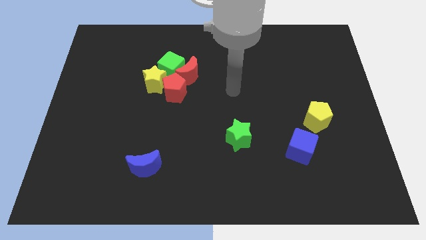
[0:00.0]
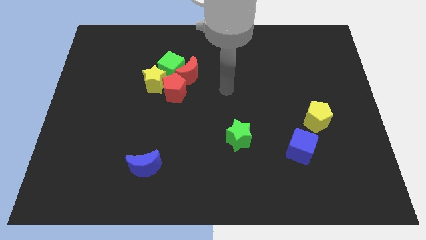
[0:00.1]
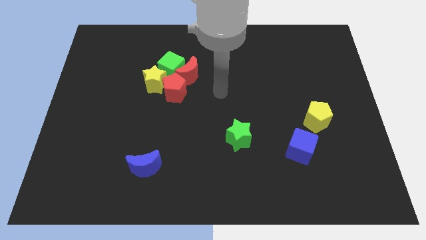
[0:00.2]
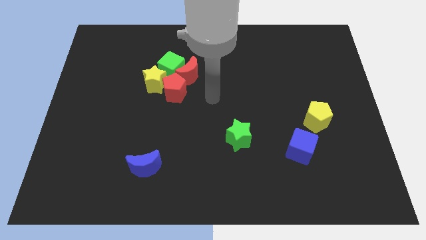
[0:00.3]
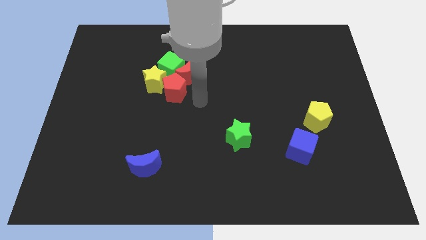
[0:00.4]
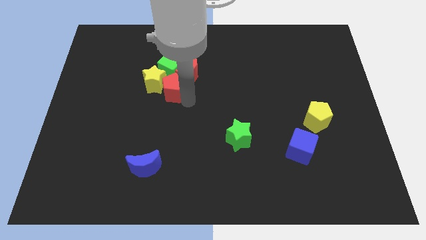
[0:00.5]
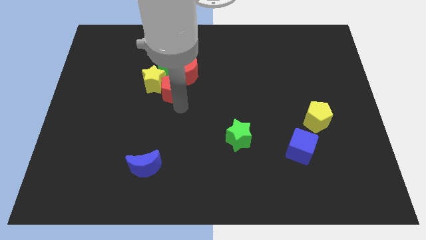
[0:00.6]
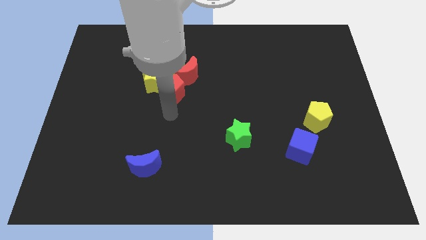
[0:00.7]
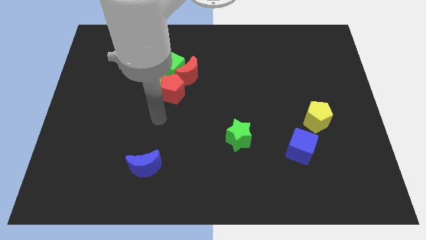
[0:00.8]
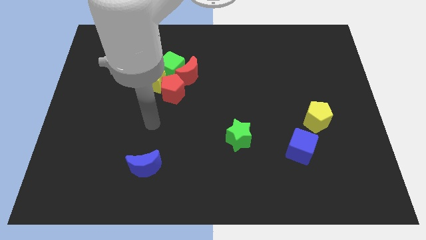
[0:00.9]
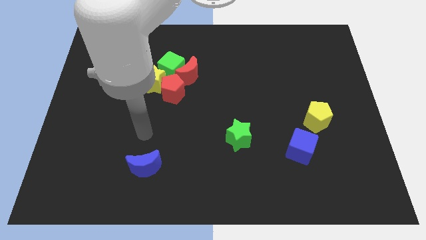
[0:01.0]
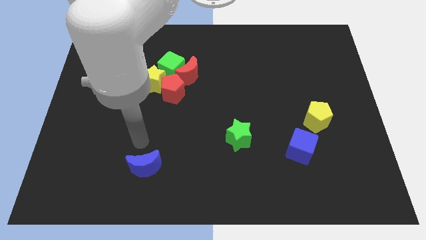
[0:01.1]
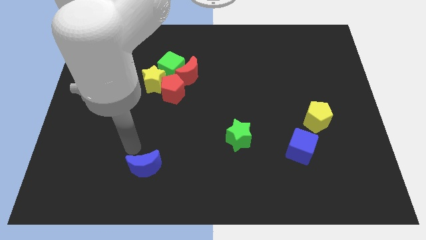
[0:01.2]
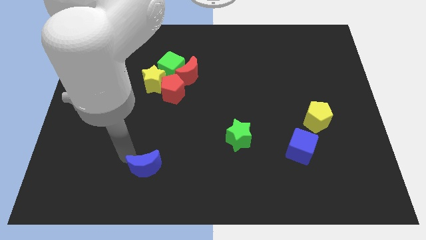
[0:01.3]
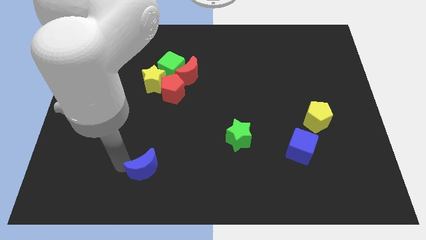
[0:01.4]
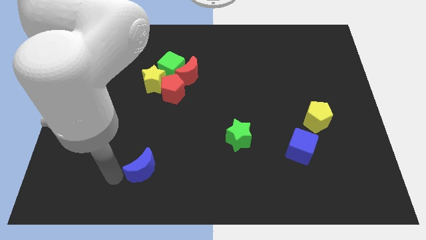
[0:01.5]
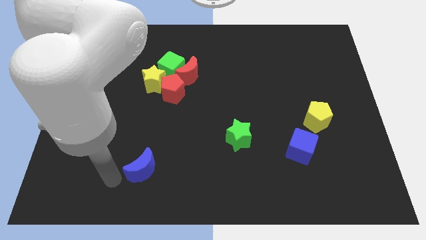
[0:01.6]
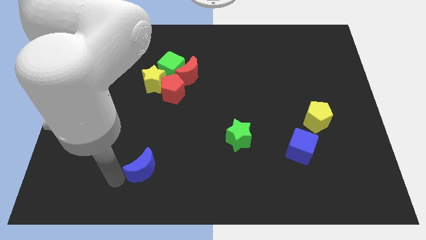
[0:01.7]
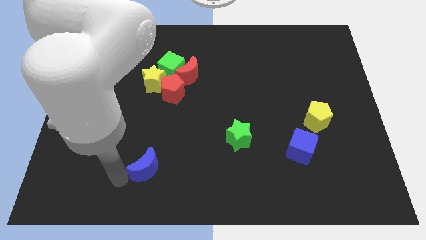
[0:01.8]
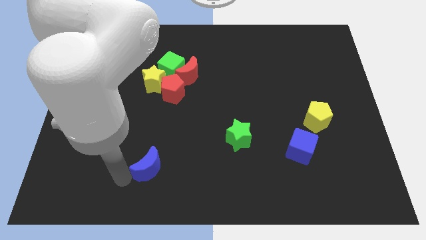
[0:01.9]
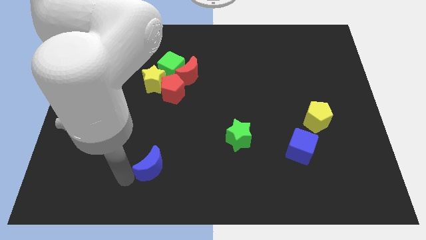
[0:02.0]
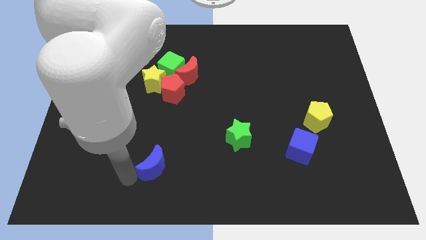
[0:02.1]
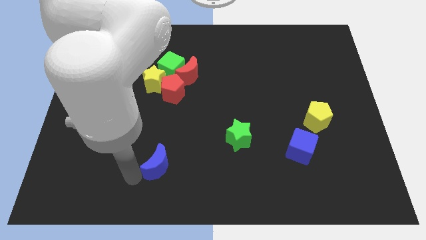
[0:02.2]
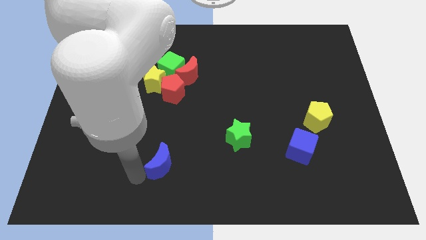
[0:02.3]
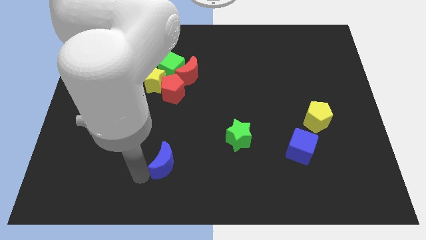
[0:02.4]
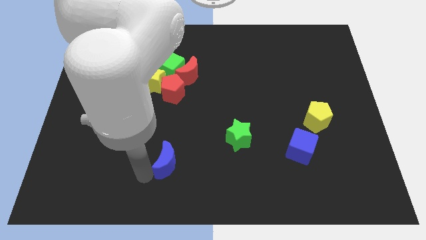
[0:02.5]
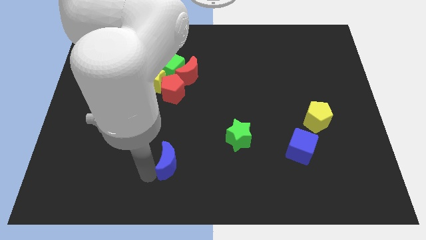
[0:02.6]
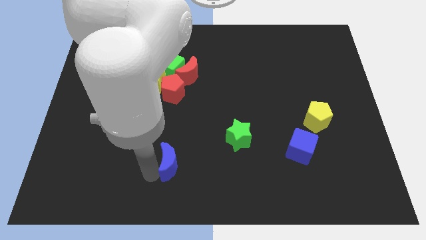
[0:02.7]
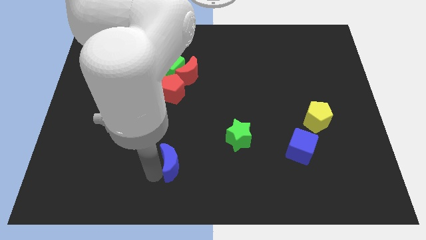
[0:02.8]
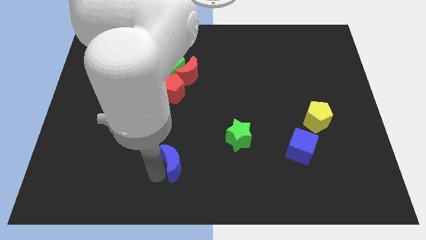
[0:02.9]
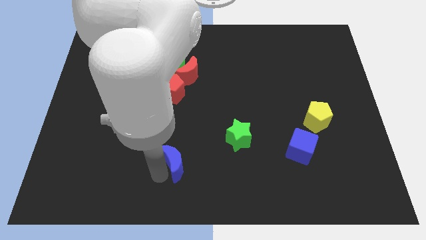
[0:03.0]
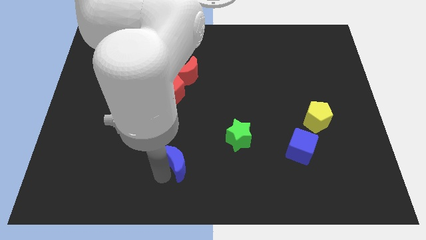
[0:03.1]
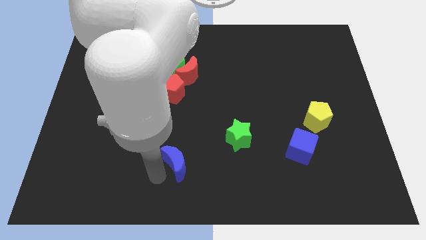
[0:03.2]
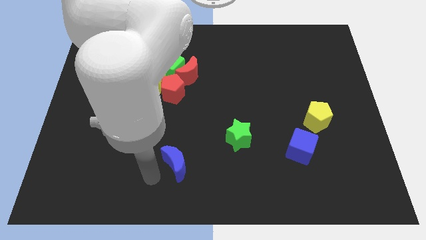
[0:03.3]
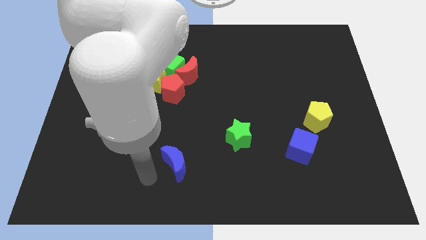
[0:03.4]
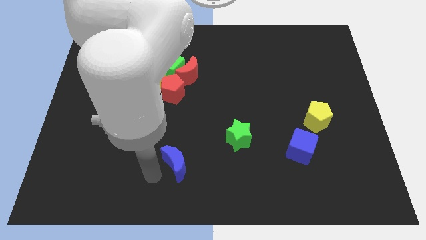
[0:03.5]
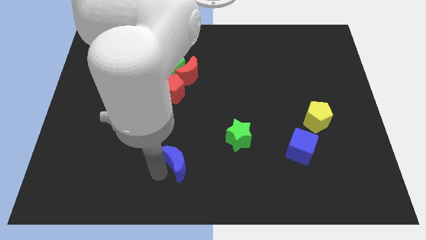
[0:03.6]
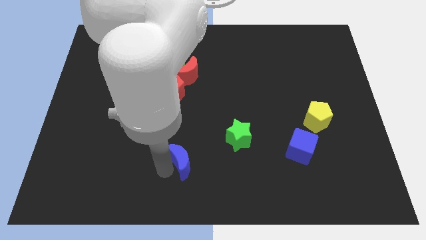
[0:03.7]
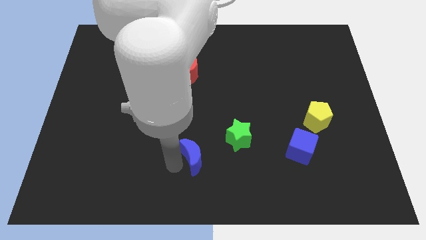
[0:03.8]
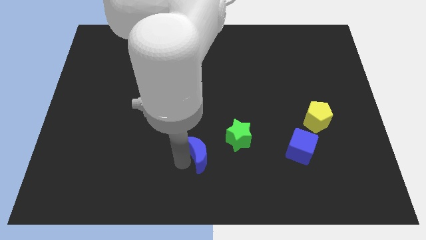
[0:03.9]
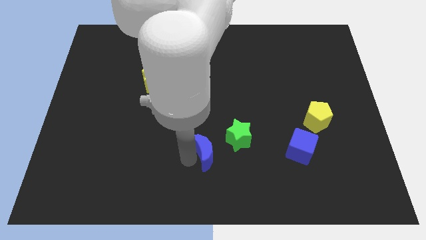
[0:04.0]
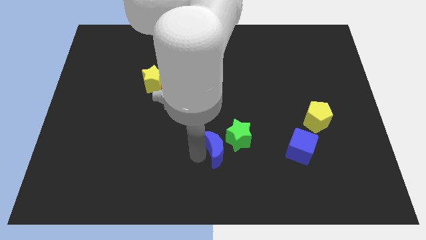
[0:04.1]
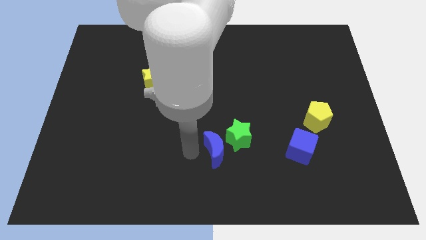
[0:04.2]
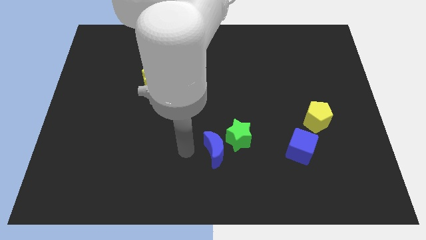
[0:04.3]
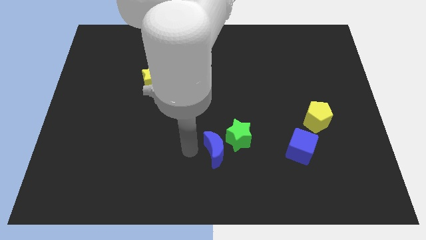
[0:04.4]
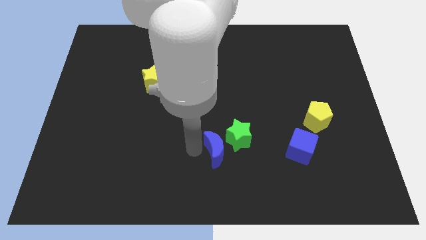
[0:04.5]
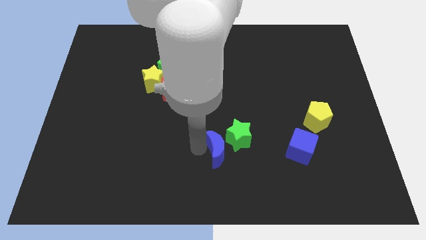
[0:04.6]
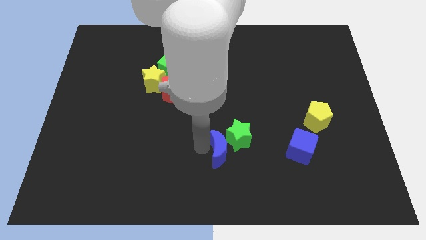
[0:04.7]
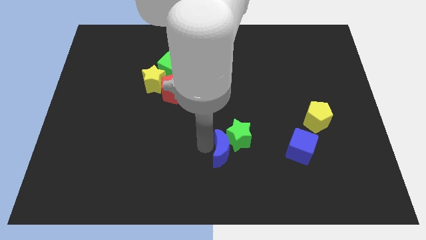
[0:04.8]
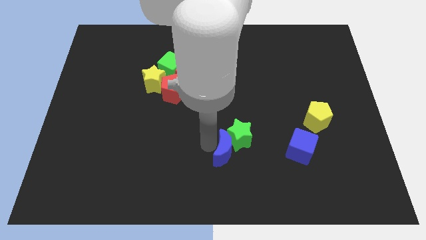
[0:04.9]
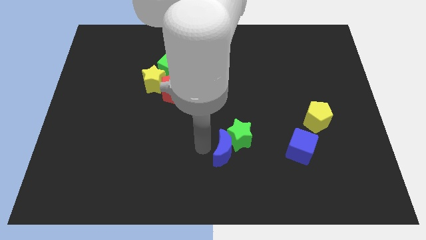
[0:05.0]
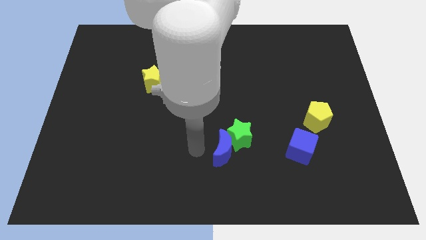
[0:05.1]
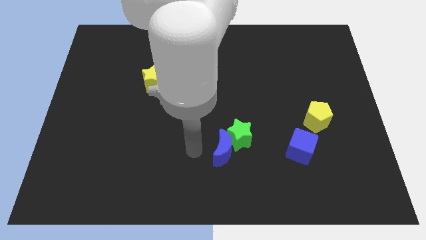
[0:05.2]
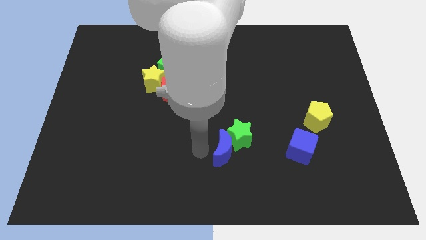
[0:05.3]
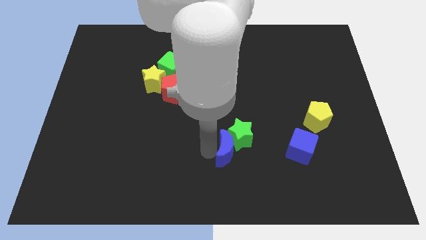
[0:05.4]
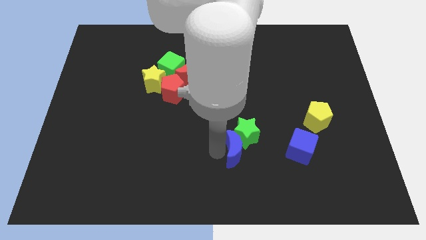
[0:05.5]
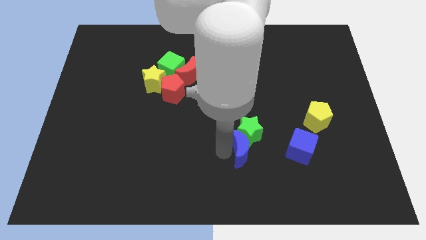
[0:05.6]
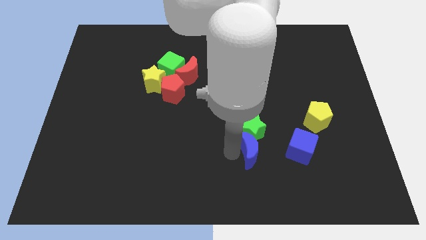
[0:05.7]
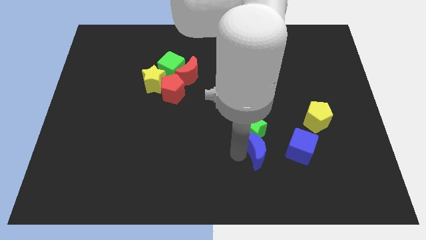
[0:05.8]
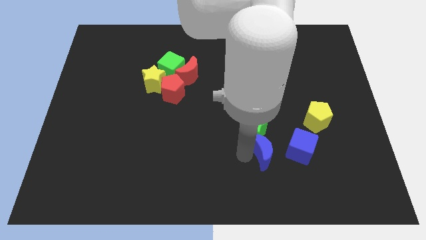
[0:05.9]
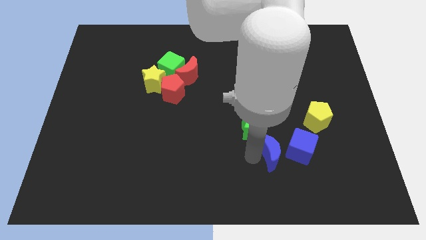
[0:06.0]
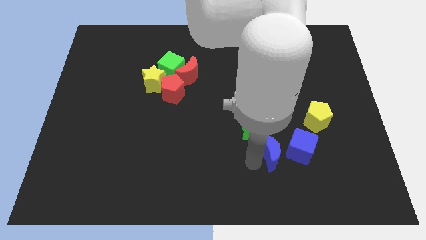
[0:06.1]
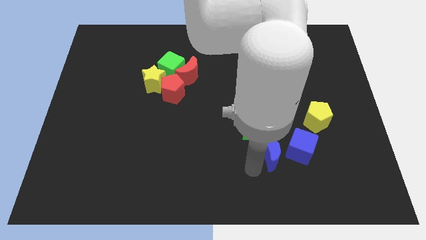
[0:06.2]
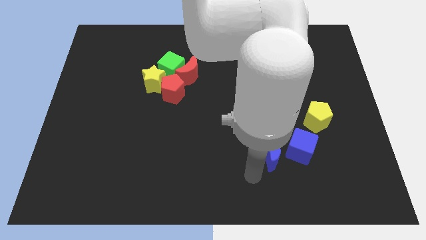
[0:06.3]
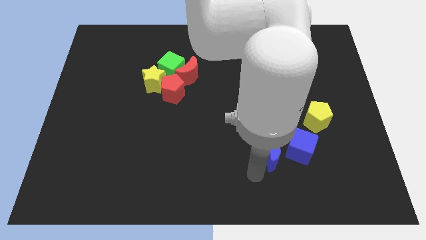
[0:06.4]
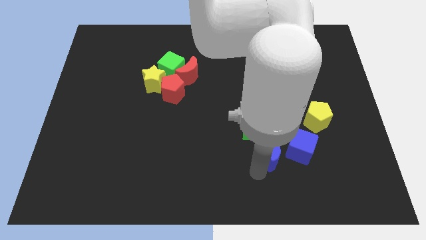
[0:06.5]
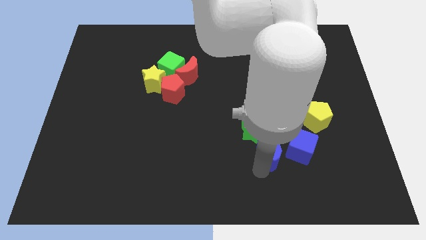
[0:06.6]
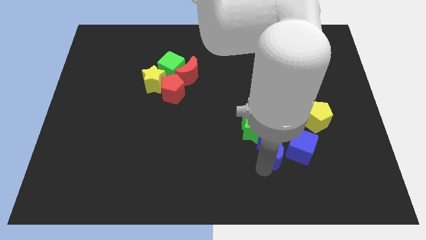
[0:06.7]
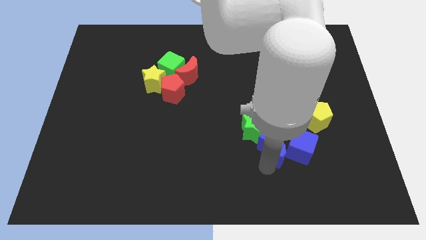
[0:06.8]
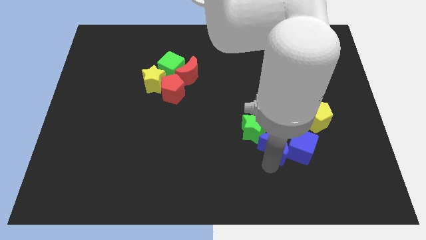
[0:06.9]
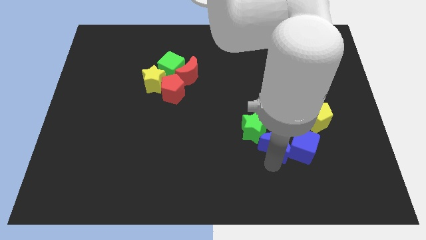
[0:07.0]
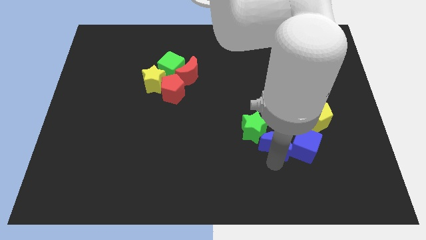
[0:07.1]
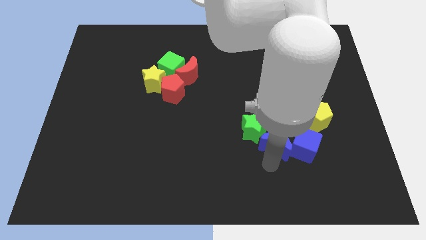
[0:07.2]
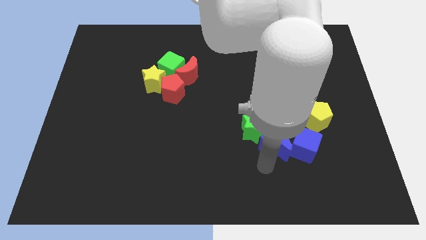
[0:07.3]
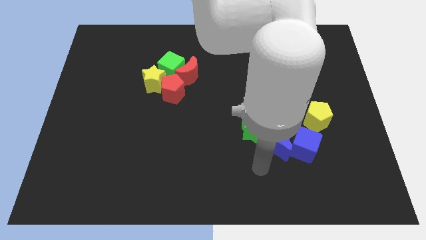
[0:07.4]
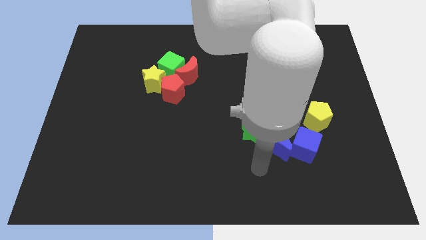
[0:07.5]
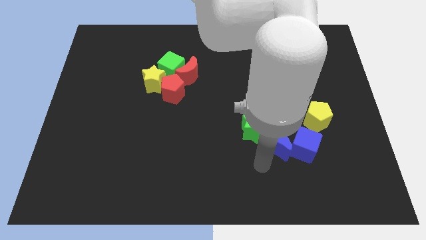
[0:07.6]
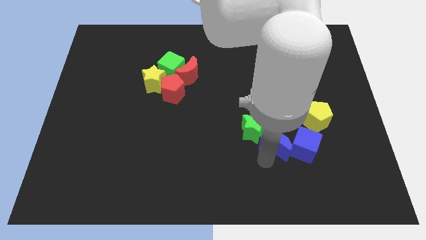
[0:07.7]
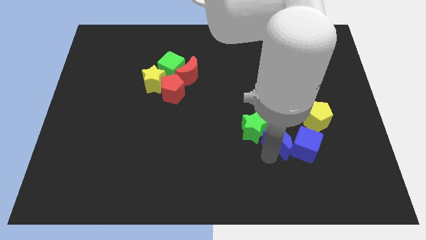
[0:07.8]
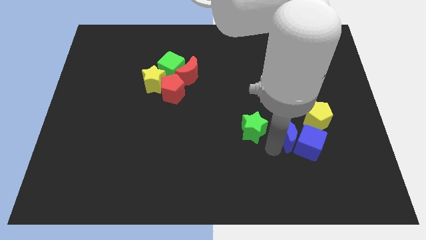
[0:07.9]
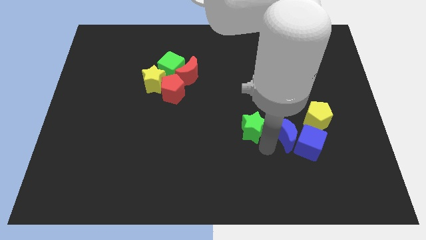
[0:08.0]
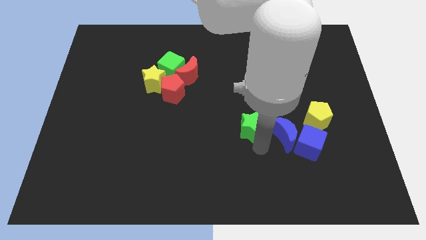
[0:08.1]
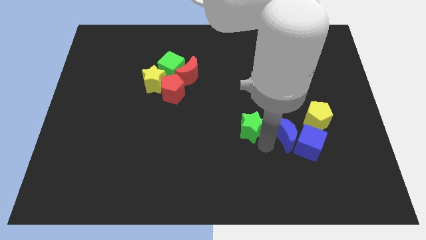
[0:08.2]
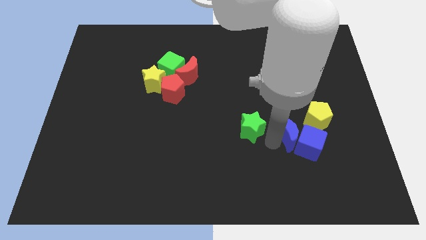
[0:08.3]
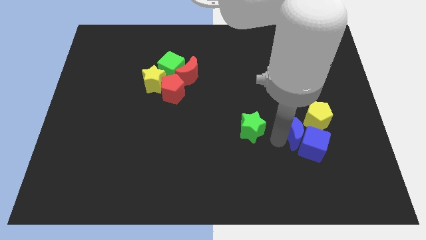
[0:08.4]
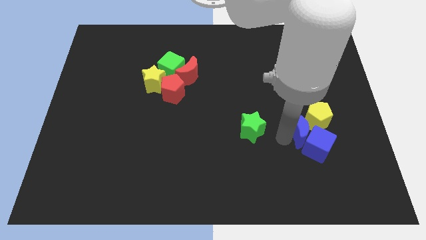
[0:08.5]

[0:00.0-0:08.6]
move the blue moon close to the yellow pentagon
